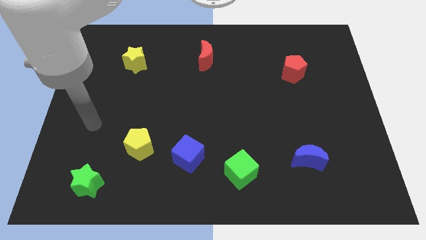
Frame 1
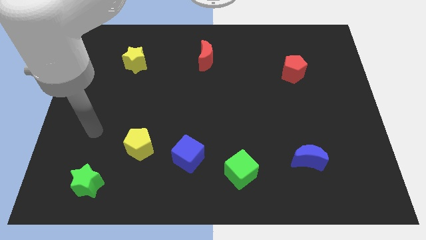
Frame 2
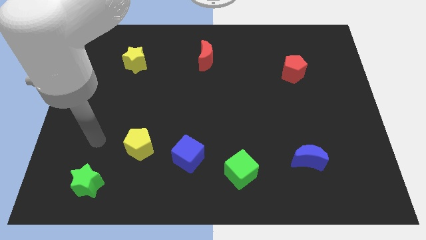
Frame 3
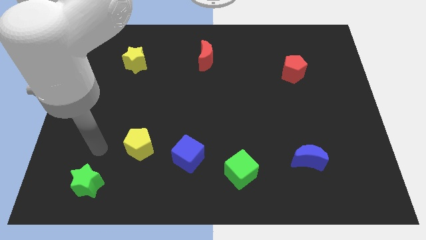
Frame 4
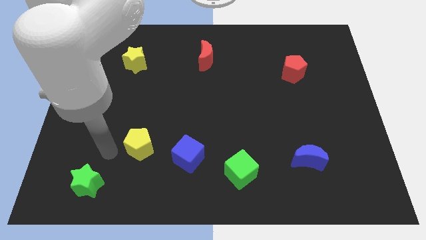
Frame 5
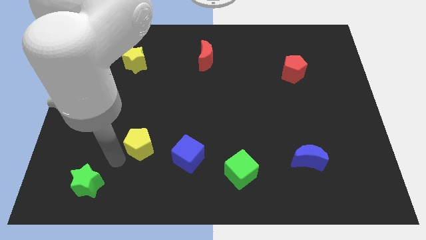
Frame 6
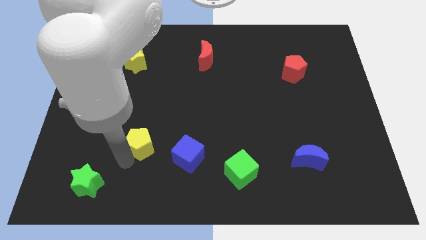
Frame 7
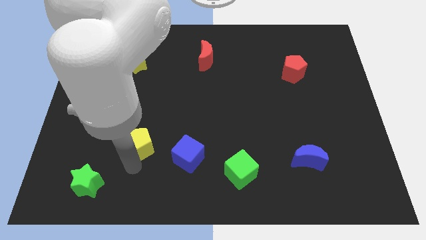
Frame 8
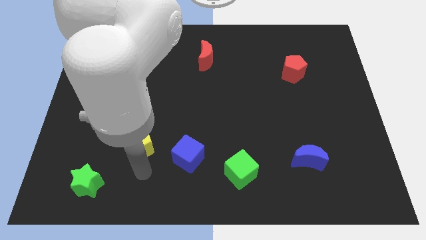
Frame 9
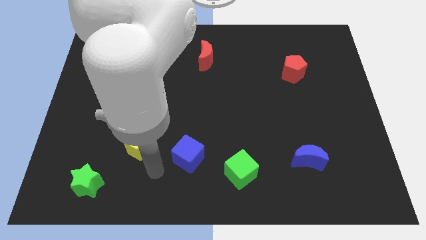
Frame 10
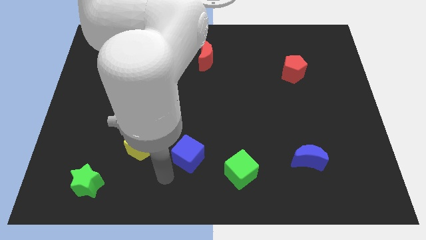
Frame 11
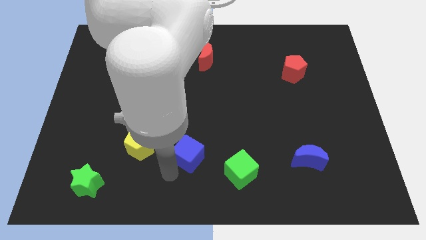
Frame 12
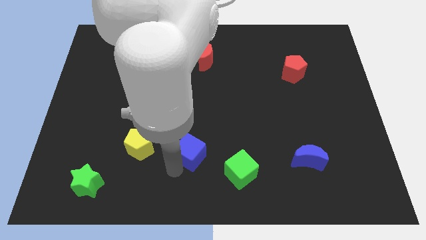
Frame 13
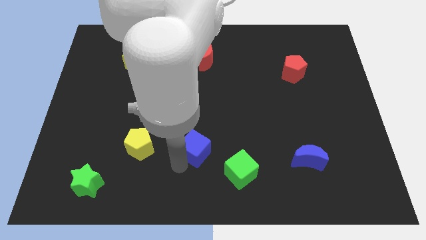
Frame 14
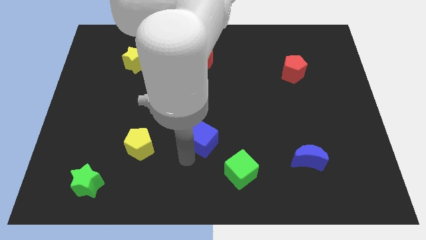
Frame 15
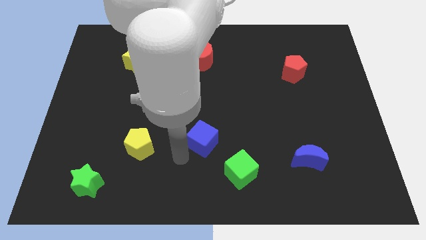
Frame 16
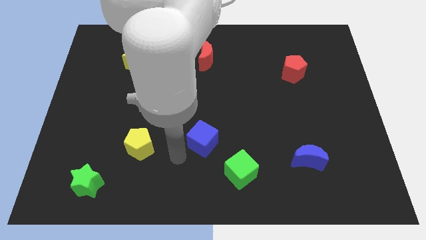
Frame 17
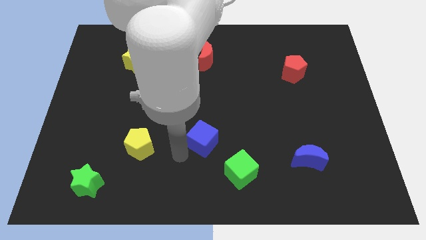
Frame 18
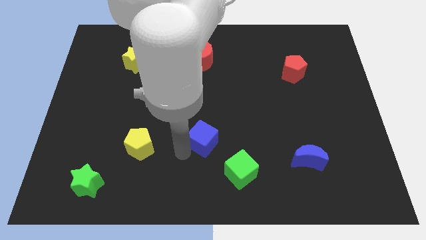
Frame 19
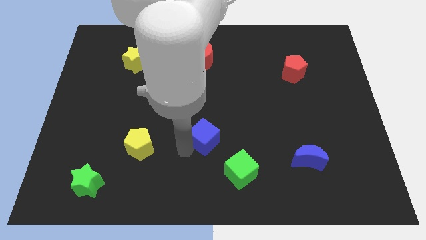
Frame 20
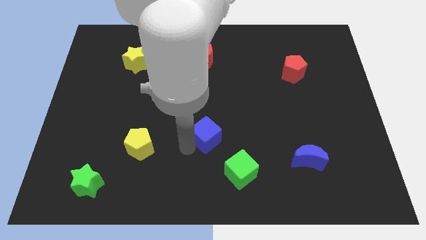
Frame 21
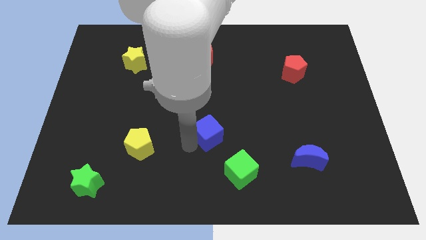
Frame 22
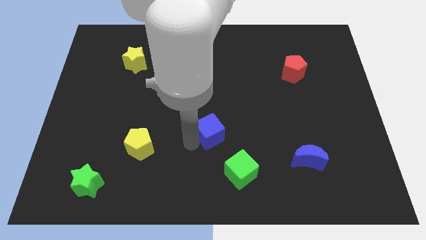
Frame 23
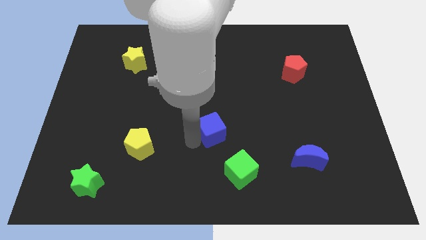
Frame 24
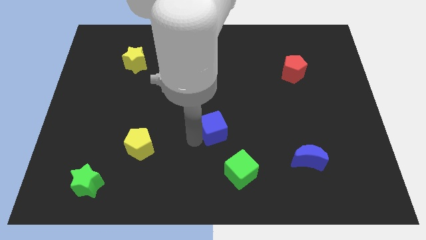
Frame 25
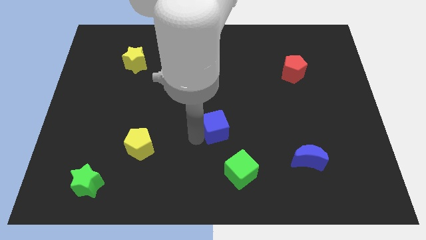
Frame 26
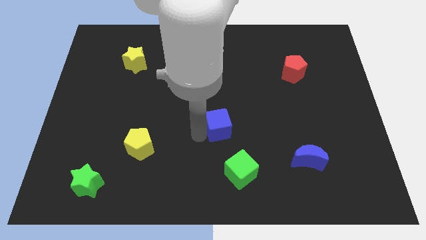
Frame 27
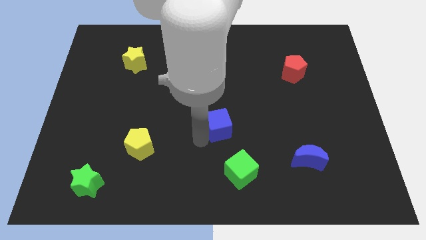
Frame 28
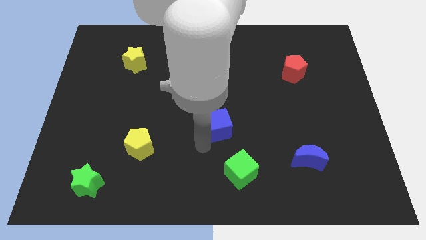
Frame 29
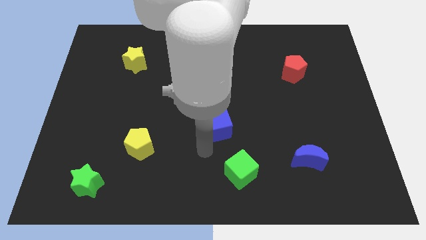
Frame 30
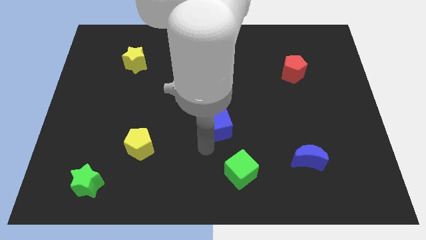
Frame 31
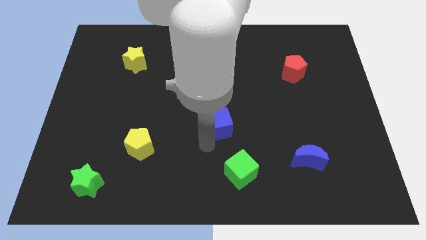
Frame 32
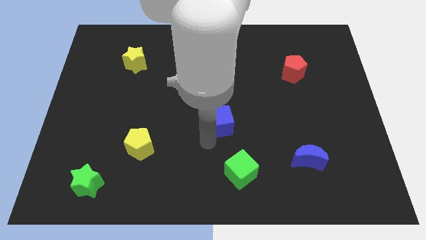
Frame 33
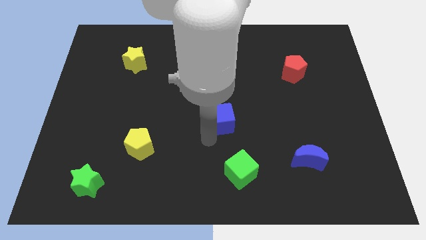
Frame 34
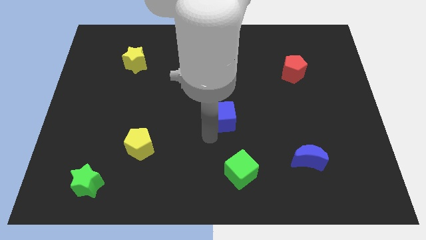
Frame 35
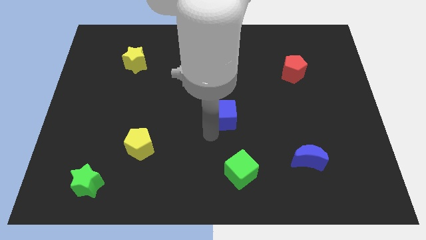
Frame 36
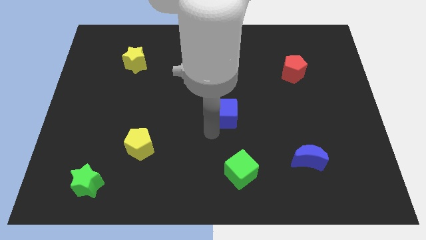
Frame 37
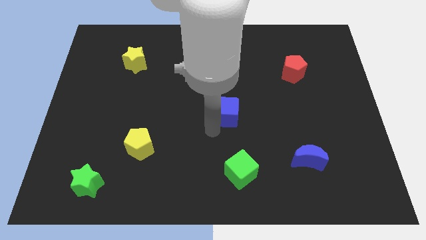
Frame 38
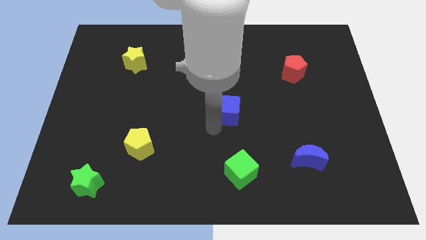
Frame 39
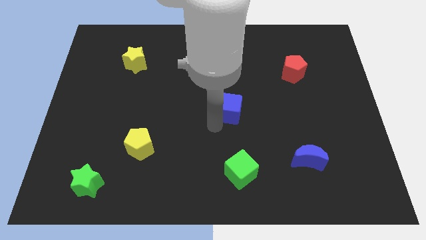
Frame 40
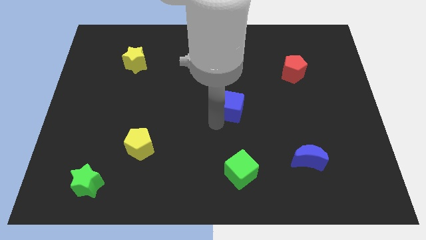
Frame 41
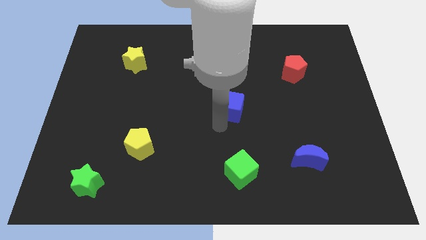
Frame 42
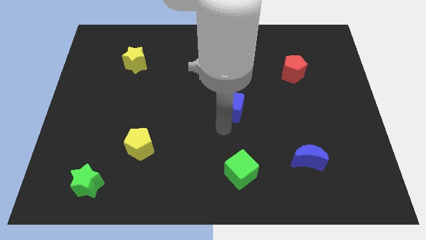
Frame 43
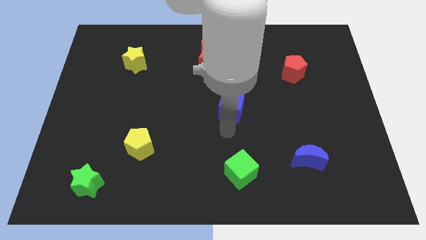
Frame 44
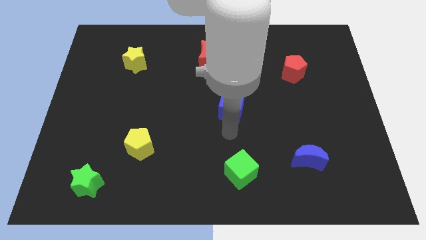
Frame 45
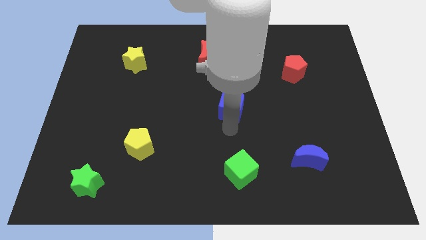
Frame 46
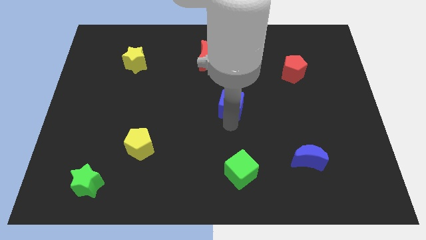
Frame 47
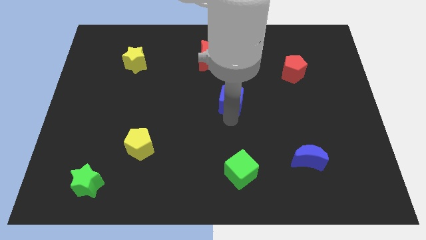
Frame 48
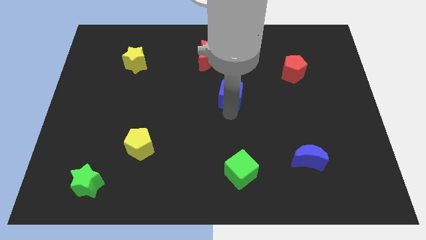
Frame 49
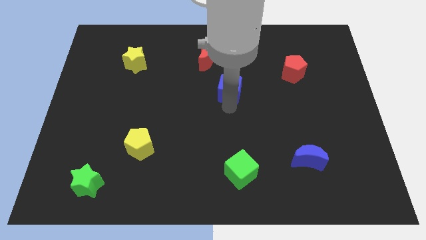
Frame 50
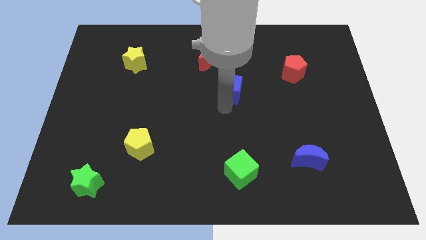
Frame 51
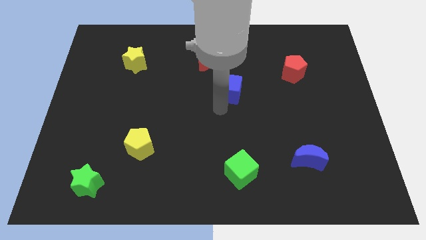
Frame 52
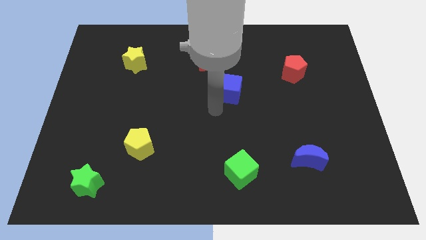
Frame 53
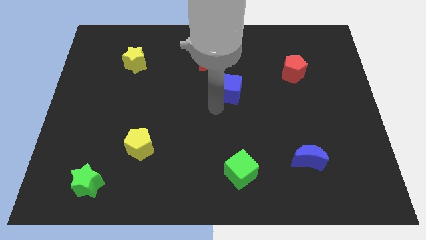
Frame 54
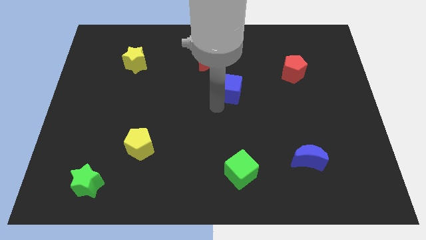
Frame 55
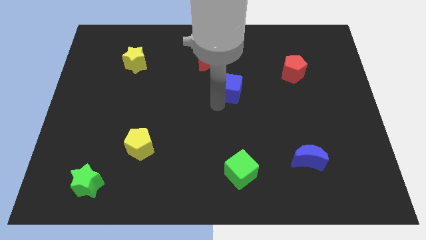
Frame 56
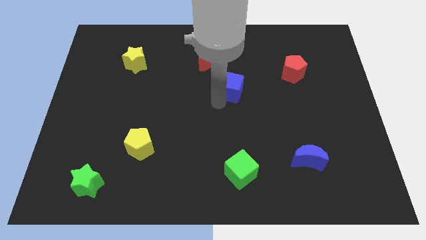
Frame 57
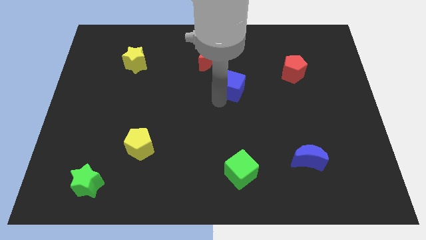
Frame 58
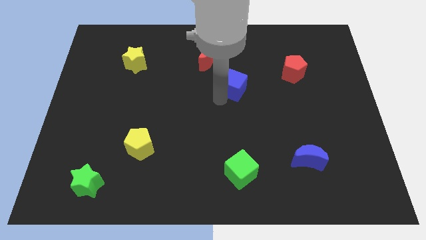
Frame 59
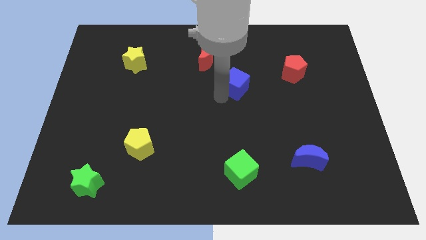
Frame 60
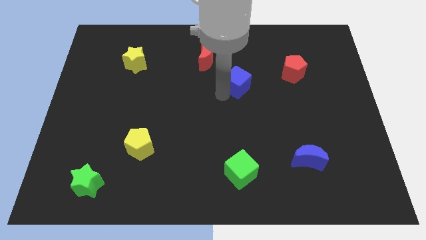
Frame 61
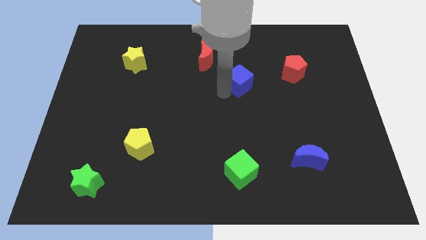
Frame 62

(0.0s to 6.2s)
push the blue cube left of the red pentagon

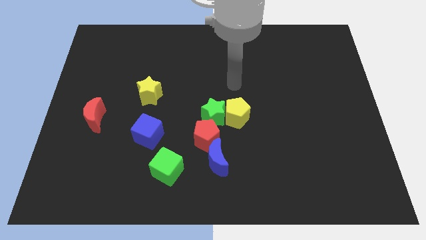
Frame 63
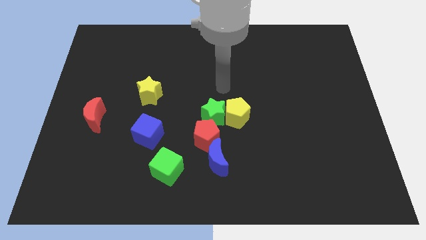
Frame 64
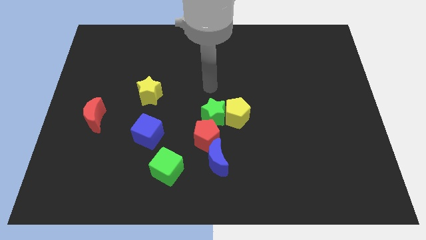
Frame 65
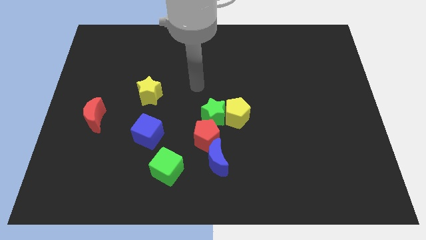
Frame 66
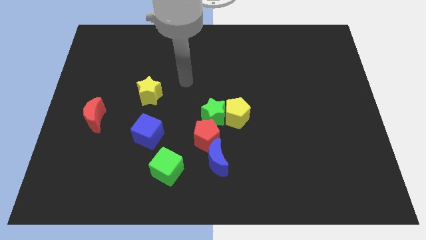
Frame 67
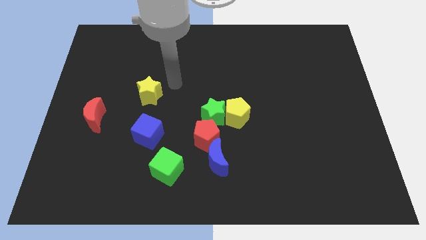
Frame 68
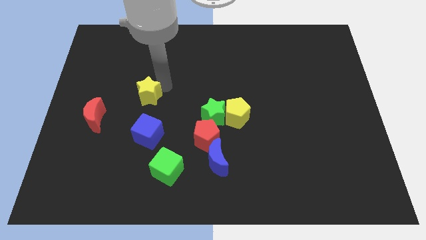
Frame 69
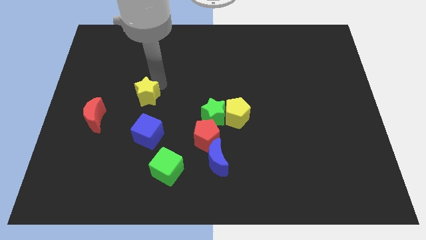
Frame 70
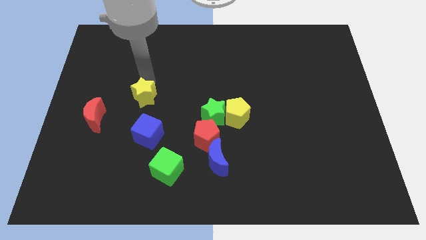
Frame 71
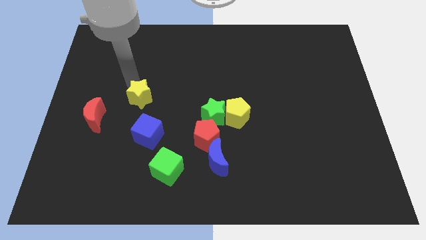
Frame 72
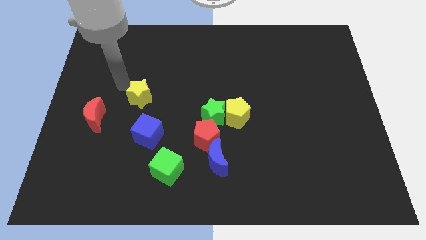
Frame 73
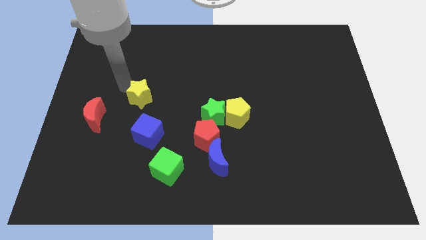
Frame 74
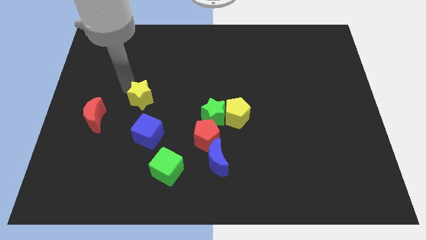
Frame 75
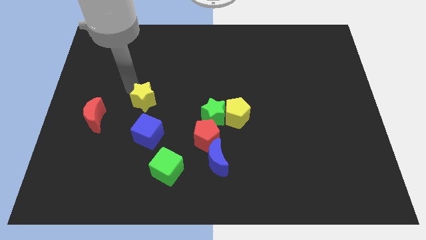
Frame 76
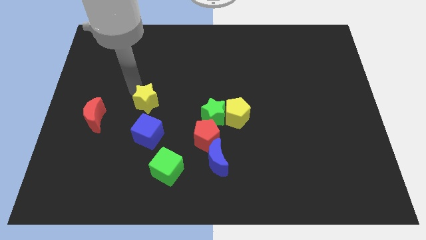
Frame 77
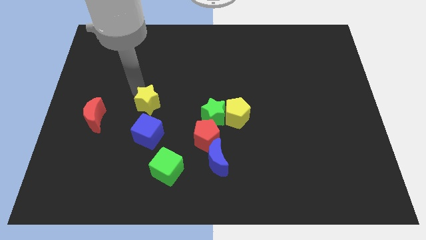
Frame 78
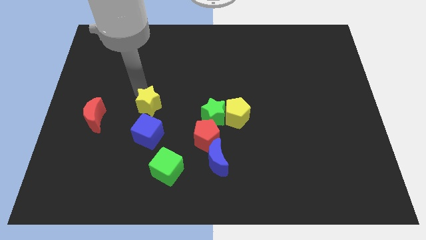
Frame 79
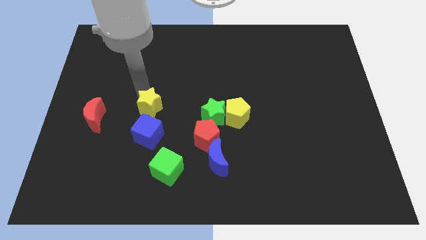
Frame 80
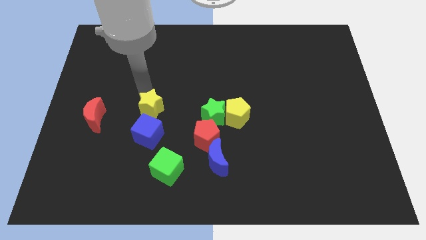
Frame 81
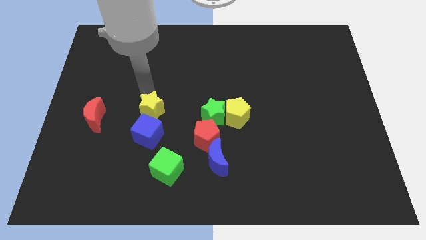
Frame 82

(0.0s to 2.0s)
slide the yellow star diagonally up and to the right of the blue cube

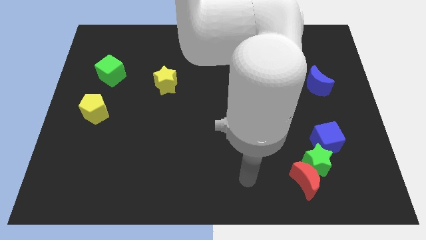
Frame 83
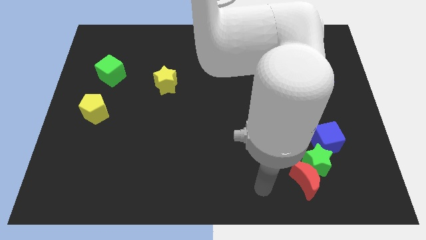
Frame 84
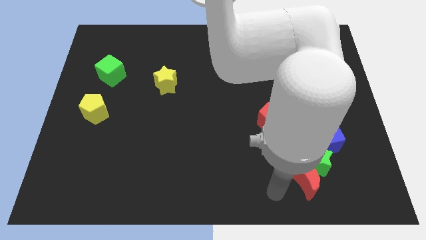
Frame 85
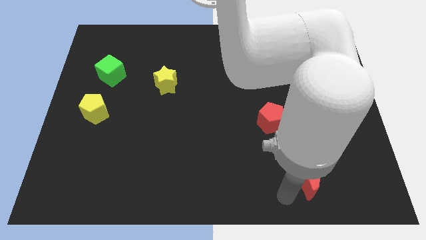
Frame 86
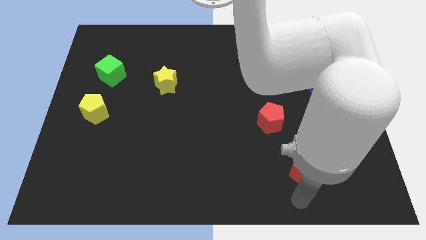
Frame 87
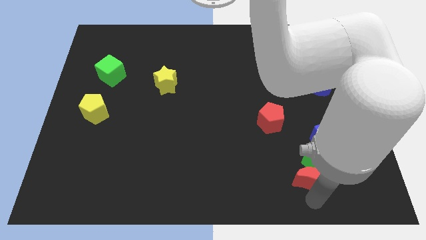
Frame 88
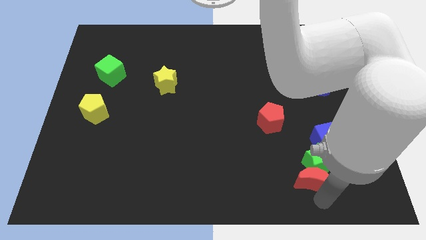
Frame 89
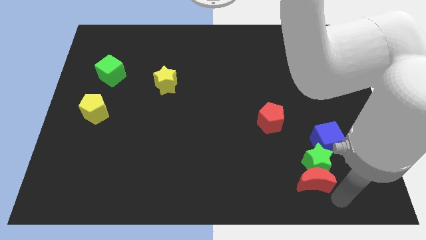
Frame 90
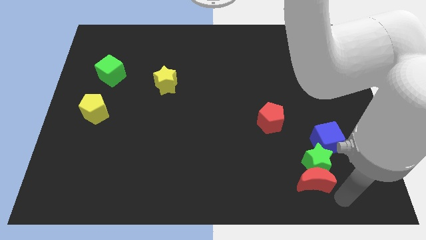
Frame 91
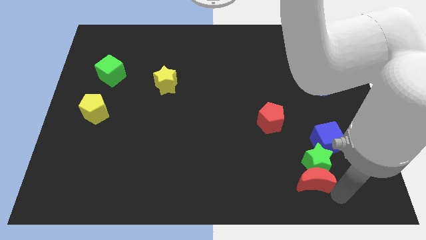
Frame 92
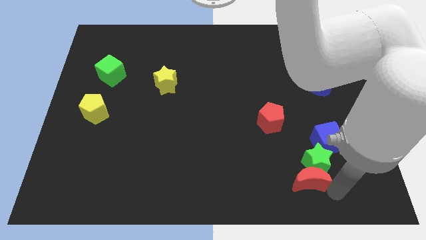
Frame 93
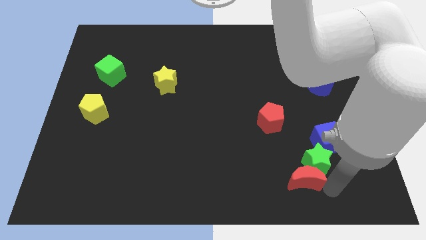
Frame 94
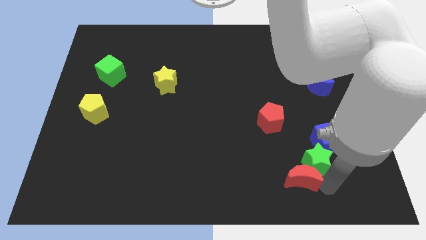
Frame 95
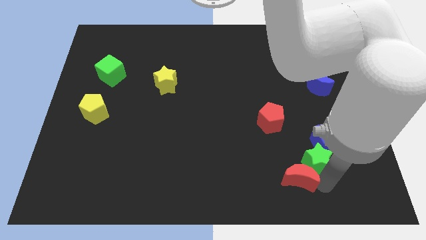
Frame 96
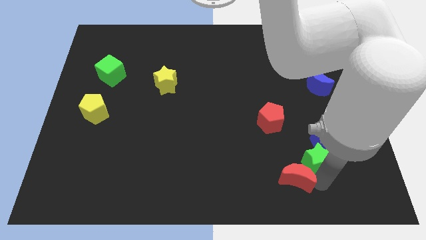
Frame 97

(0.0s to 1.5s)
push the red moon to the bottom of the red pentagon
